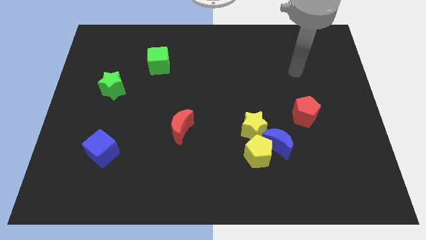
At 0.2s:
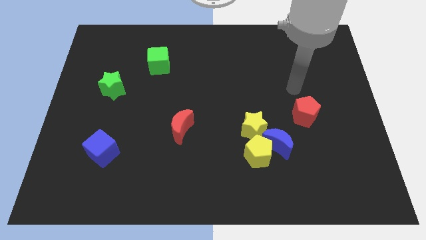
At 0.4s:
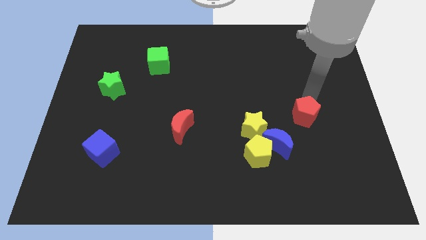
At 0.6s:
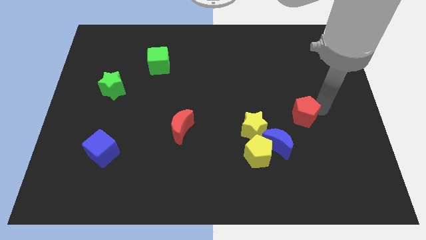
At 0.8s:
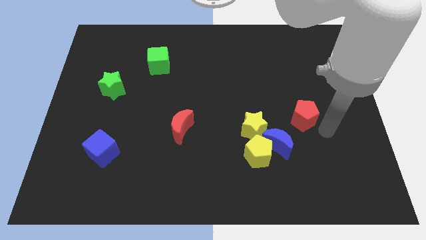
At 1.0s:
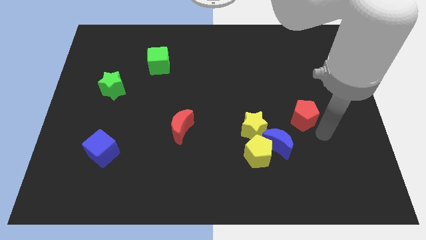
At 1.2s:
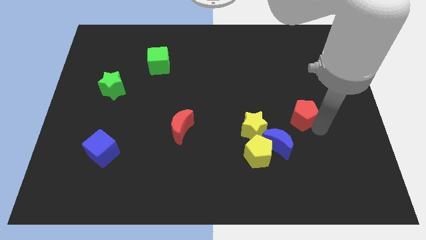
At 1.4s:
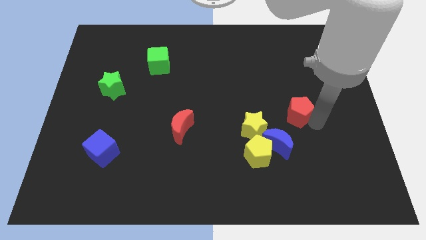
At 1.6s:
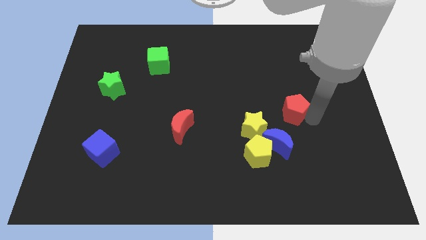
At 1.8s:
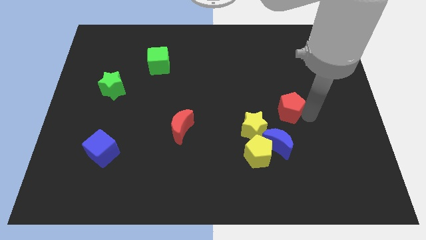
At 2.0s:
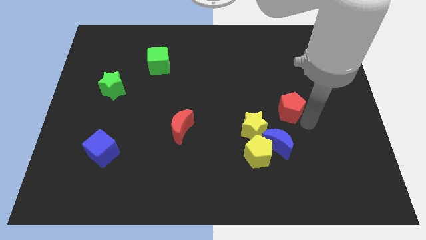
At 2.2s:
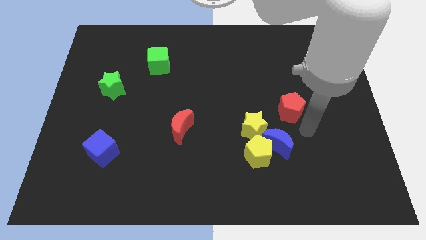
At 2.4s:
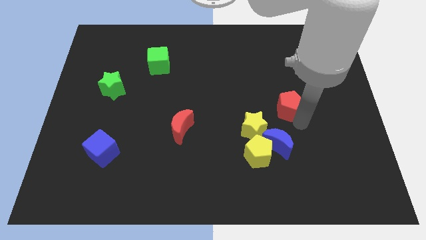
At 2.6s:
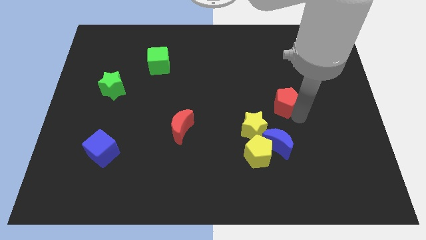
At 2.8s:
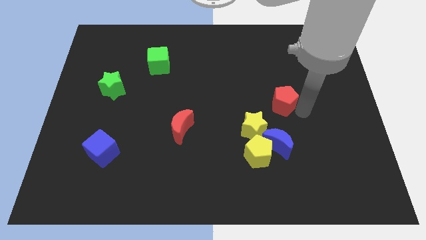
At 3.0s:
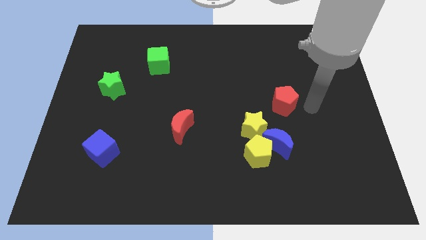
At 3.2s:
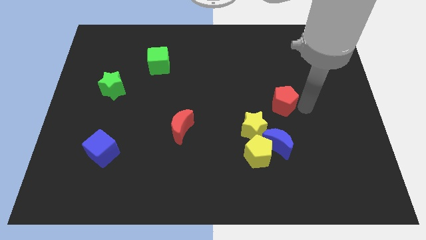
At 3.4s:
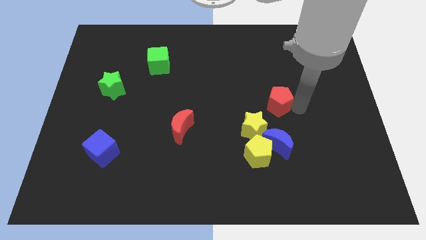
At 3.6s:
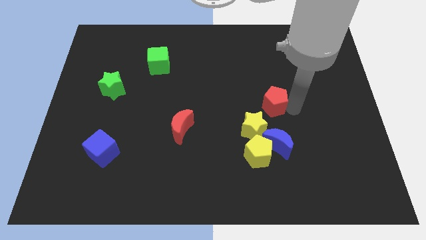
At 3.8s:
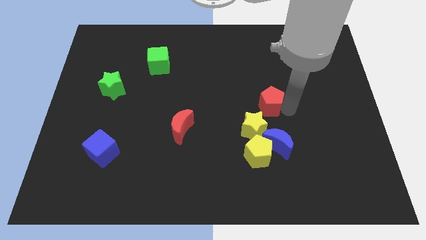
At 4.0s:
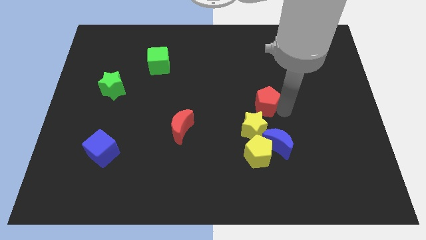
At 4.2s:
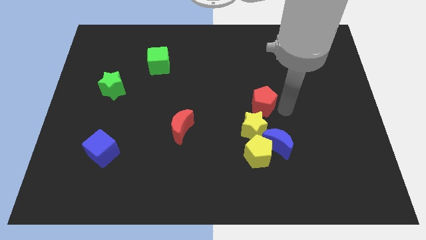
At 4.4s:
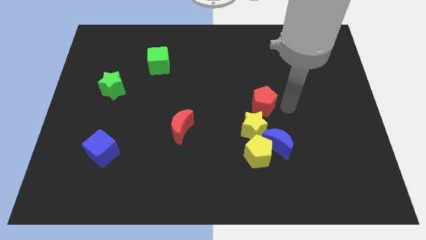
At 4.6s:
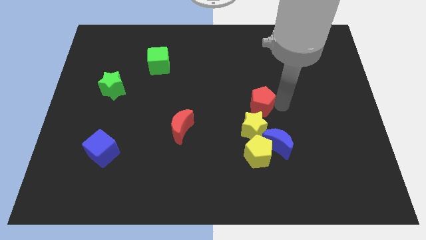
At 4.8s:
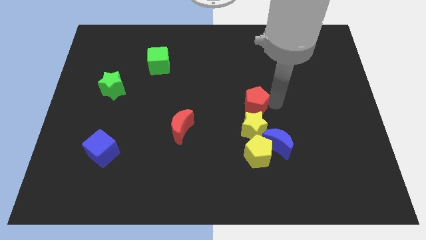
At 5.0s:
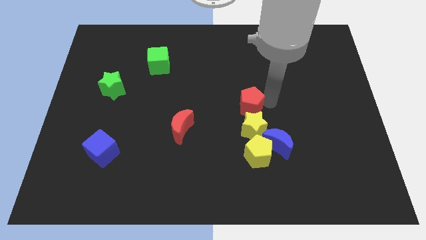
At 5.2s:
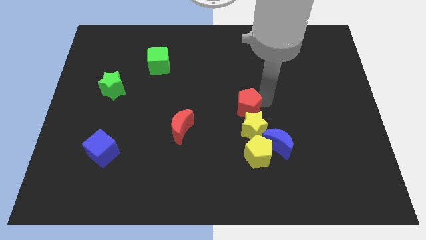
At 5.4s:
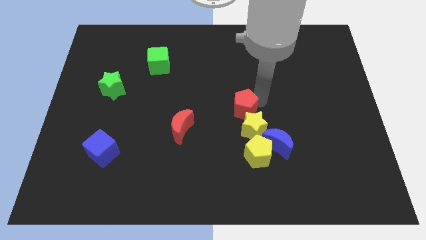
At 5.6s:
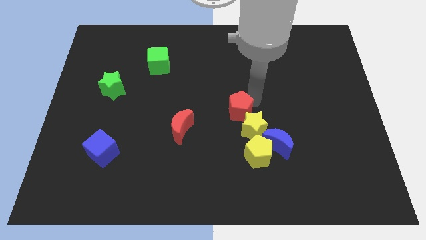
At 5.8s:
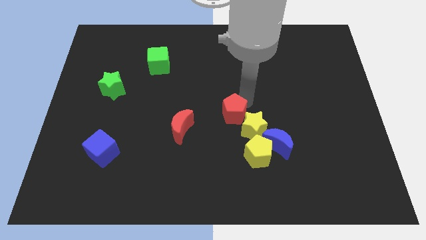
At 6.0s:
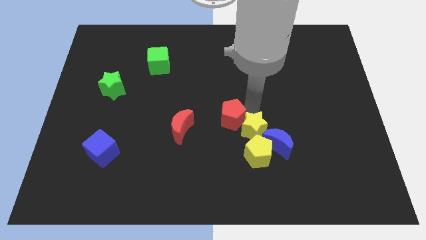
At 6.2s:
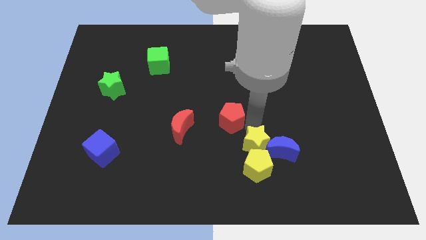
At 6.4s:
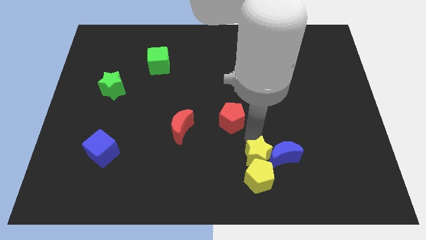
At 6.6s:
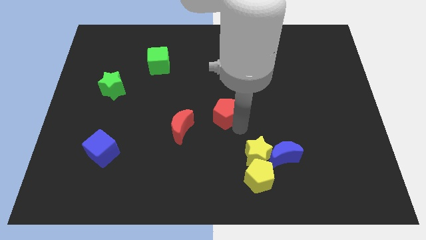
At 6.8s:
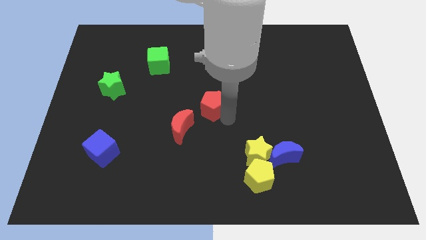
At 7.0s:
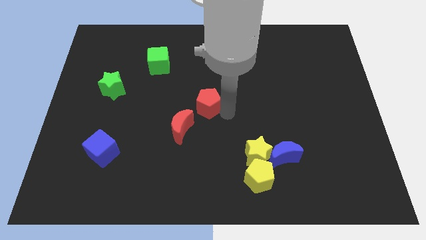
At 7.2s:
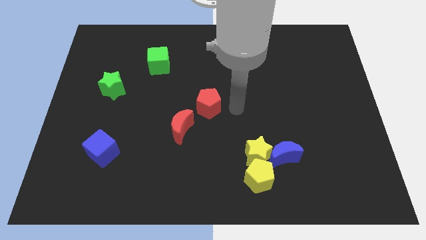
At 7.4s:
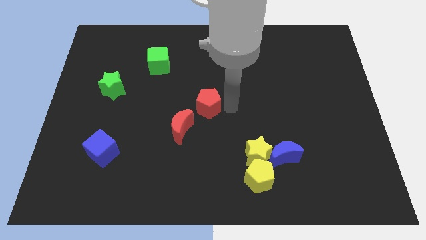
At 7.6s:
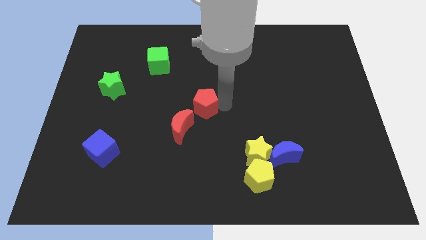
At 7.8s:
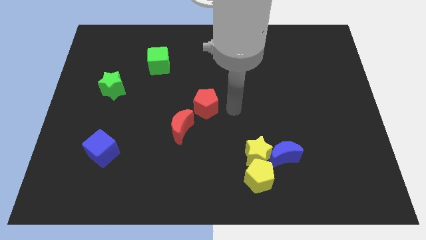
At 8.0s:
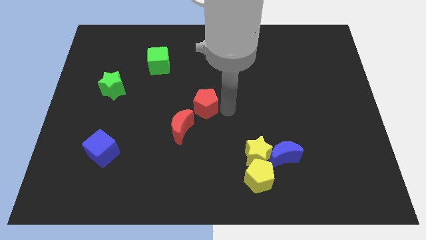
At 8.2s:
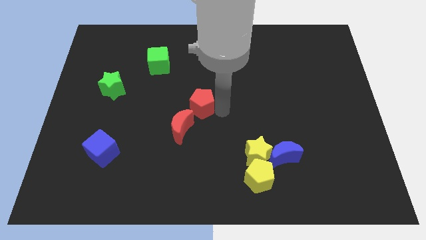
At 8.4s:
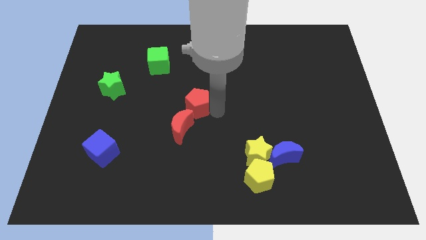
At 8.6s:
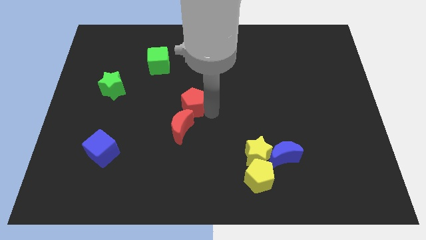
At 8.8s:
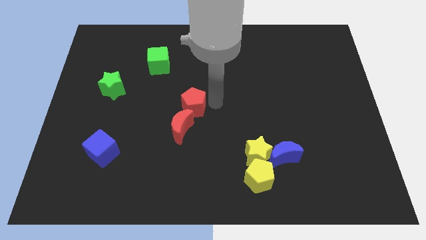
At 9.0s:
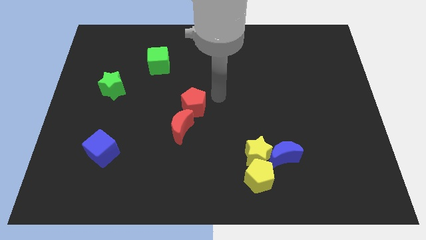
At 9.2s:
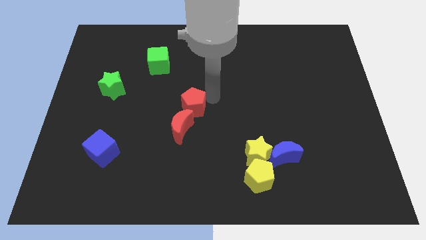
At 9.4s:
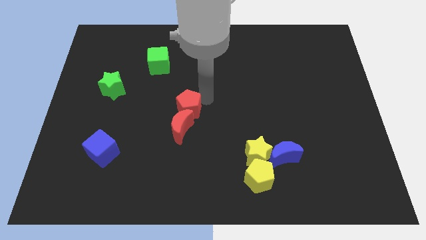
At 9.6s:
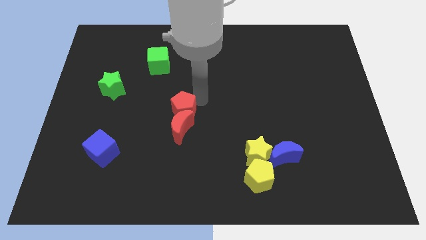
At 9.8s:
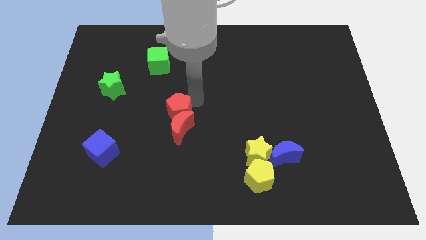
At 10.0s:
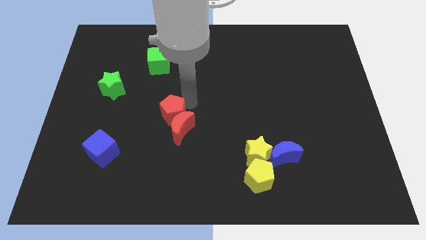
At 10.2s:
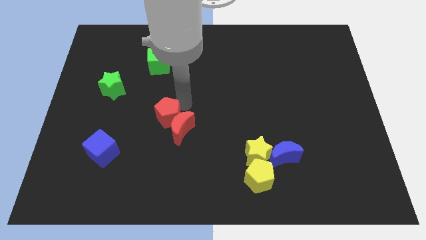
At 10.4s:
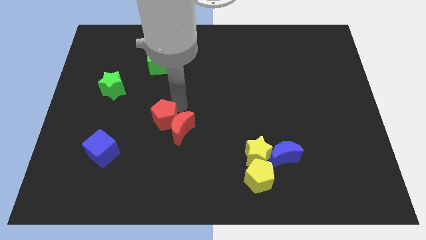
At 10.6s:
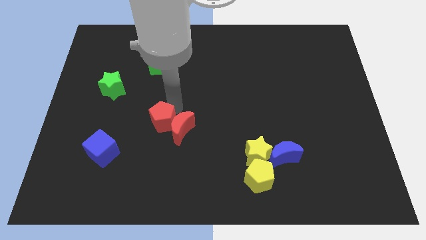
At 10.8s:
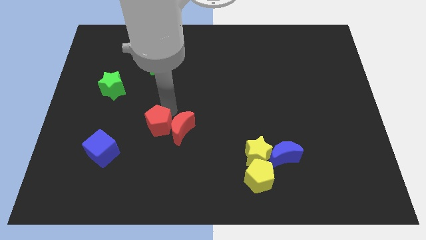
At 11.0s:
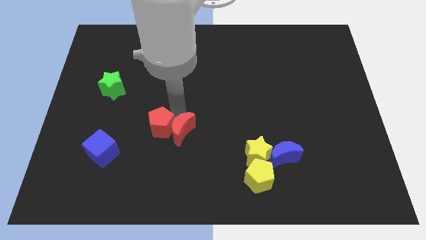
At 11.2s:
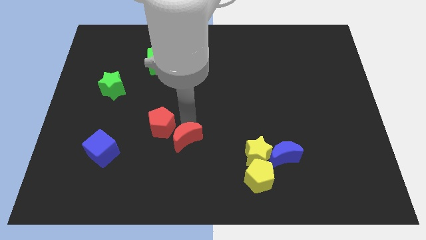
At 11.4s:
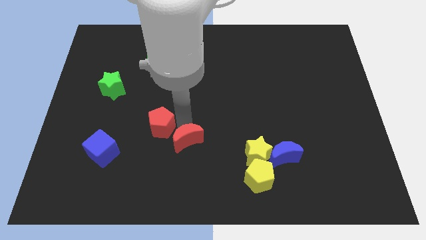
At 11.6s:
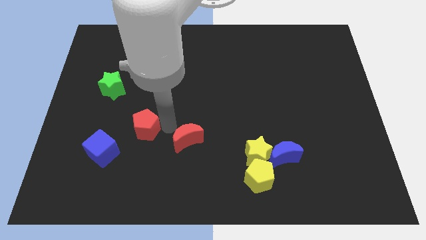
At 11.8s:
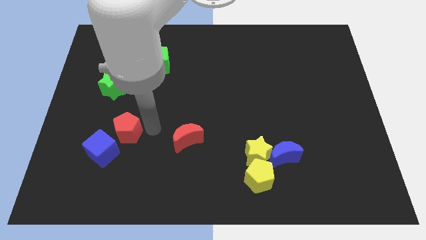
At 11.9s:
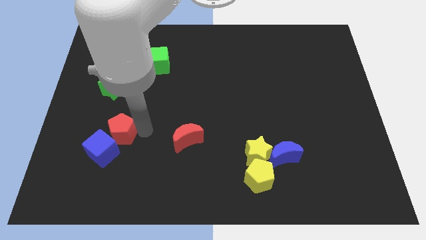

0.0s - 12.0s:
put the red pentagon to the bottom side of the green star
